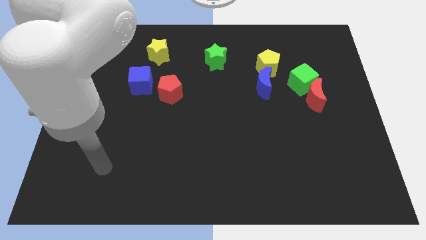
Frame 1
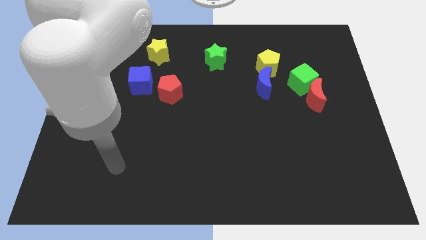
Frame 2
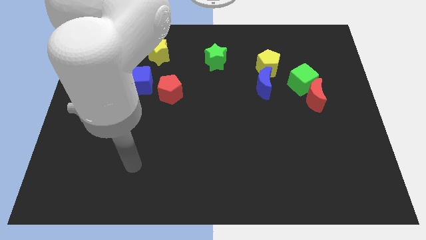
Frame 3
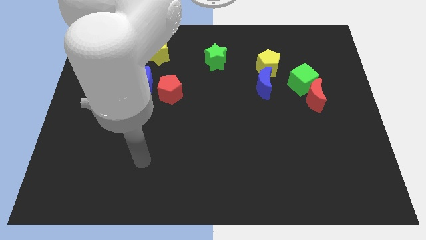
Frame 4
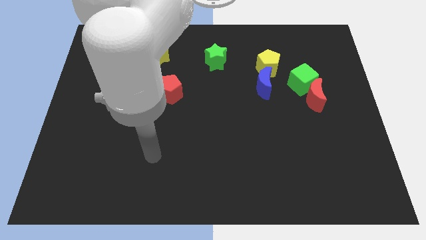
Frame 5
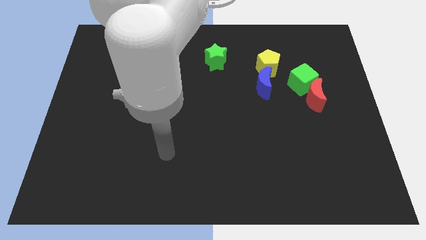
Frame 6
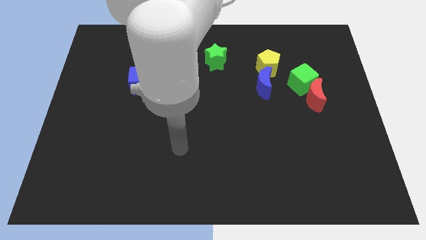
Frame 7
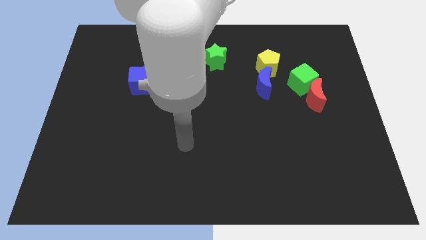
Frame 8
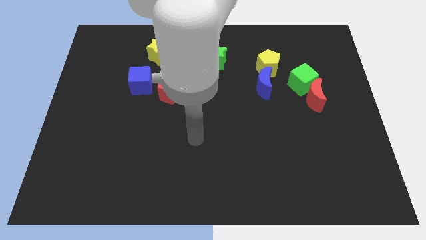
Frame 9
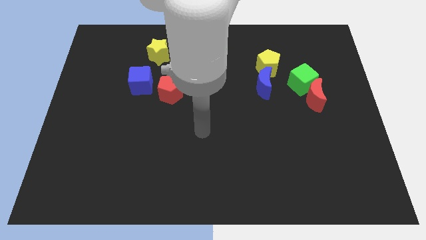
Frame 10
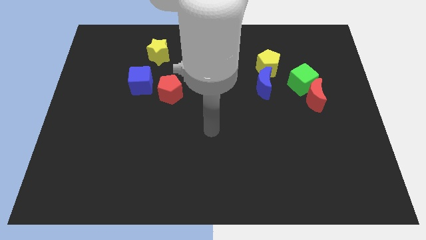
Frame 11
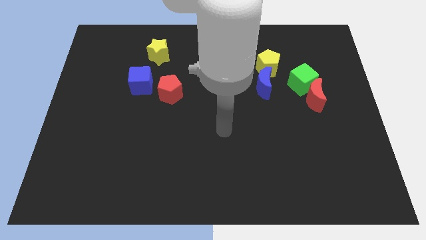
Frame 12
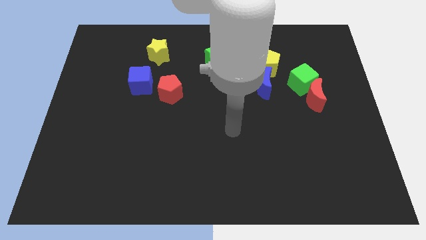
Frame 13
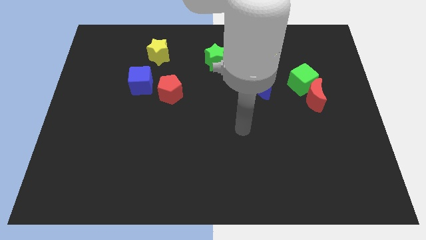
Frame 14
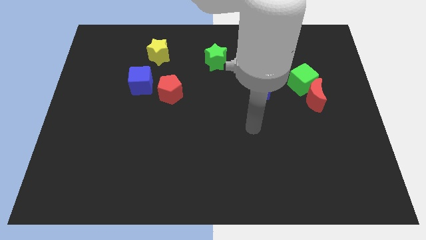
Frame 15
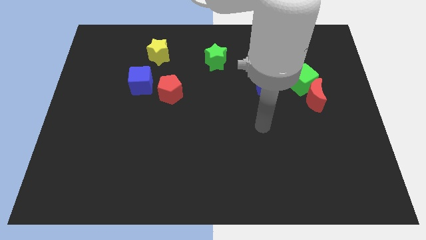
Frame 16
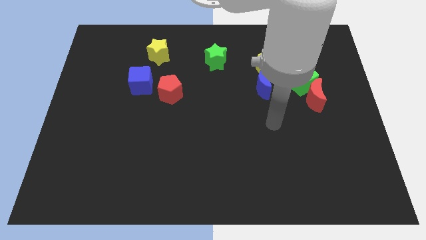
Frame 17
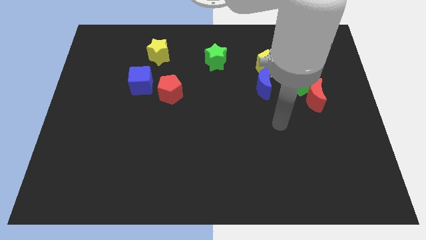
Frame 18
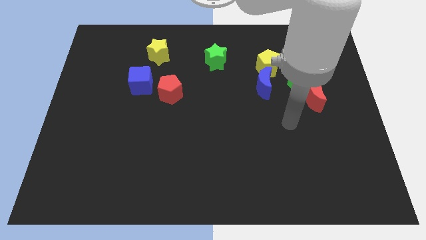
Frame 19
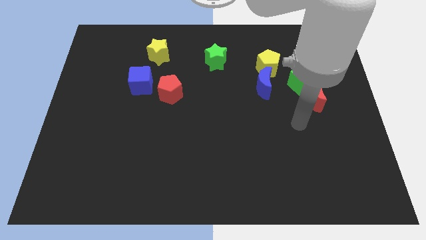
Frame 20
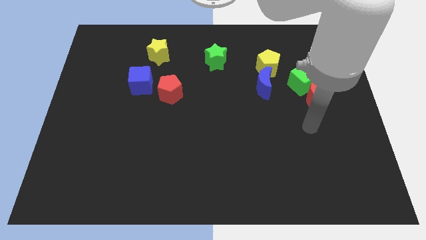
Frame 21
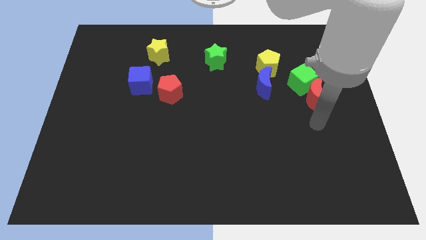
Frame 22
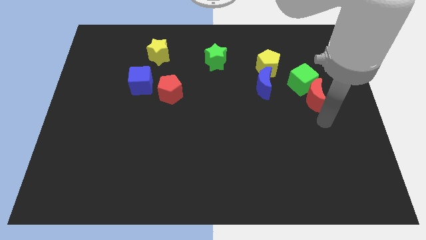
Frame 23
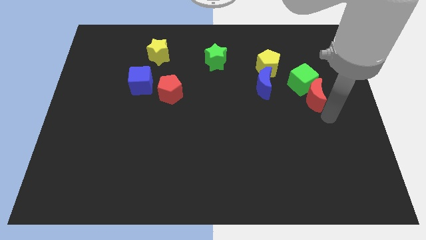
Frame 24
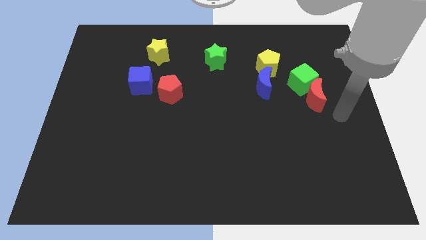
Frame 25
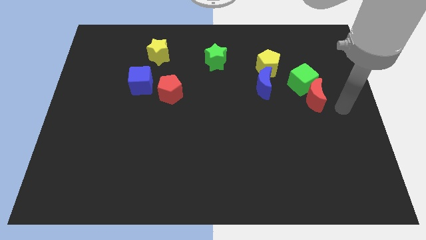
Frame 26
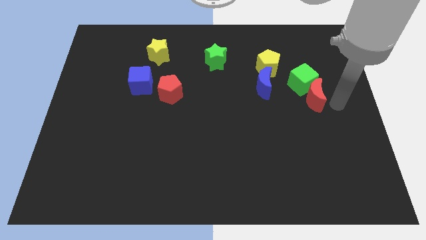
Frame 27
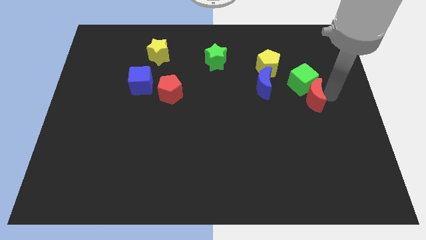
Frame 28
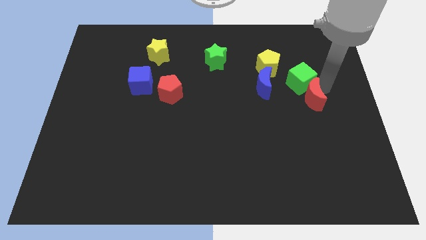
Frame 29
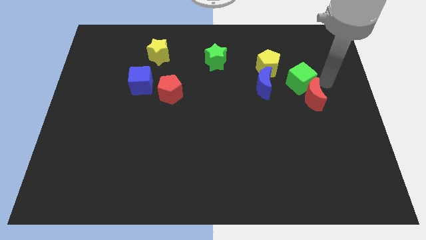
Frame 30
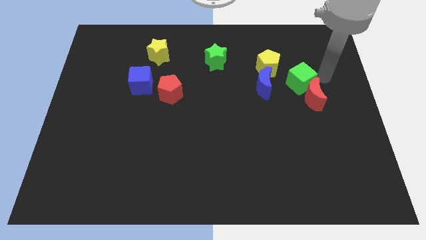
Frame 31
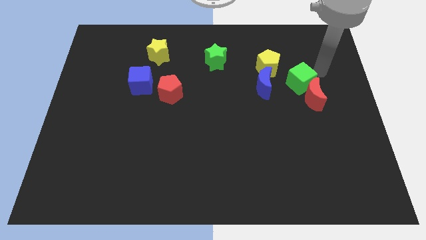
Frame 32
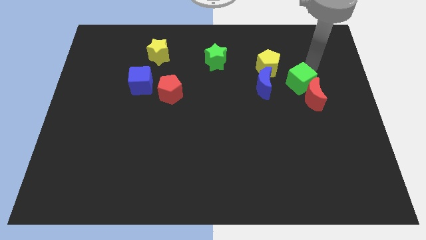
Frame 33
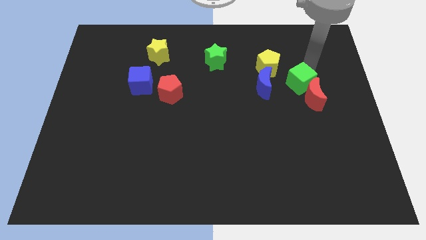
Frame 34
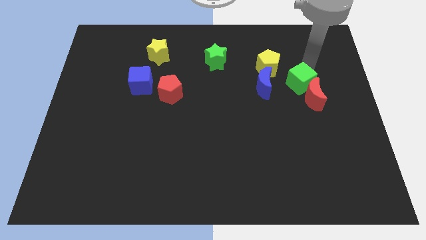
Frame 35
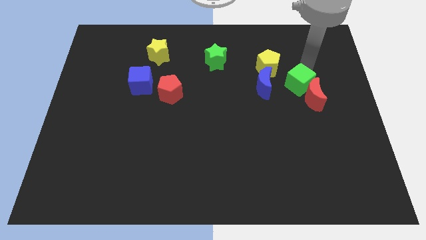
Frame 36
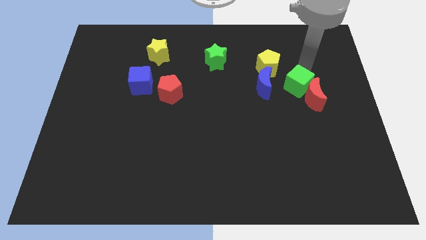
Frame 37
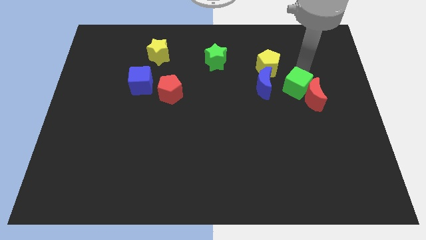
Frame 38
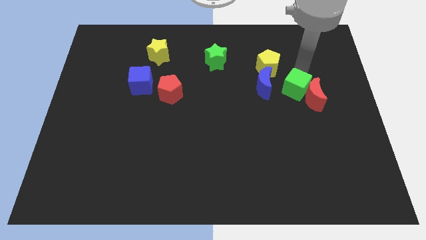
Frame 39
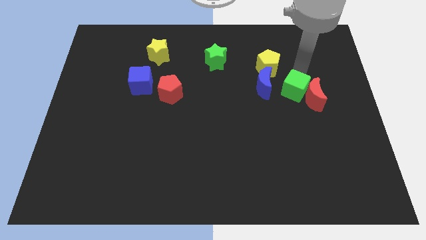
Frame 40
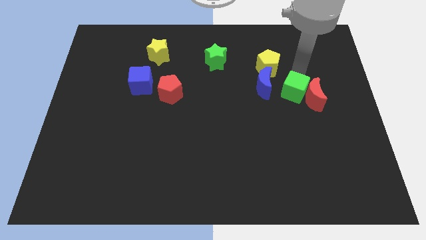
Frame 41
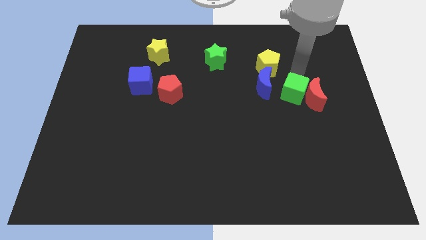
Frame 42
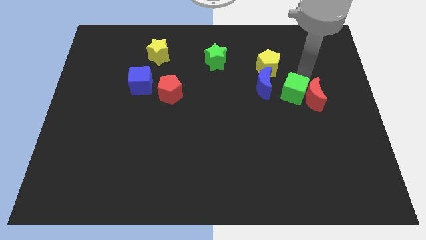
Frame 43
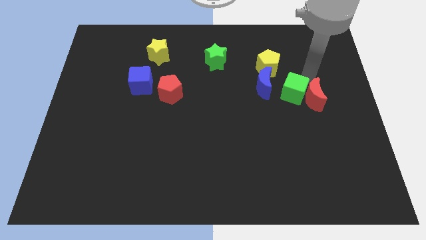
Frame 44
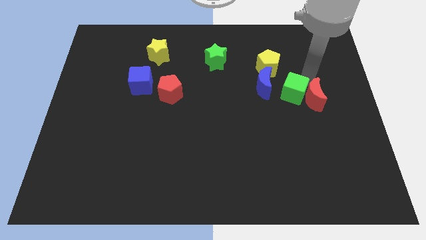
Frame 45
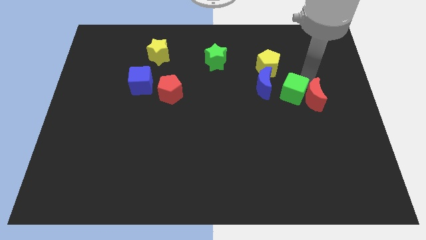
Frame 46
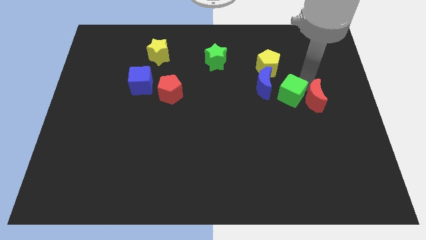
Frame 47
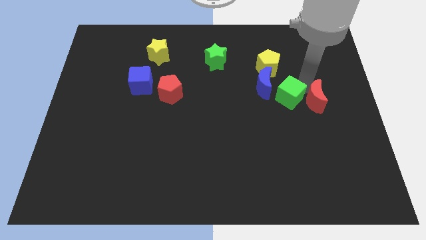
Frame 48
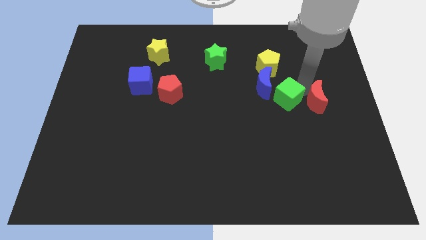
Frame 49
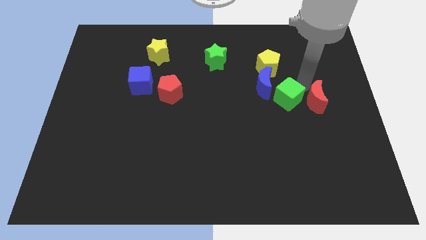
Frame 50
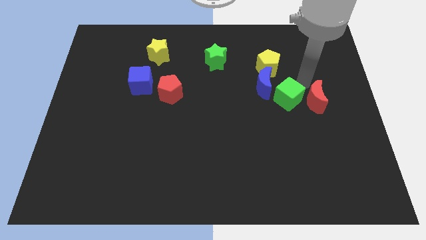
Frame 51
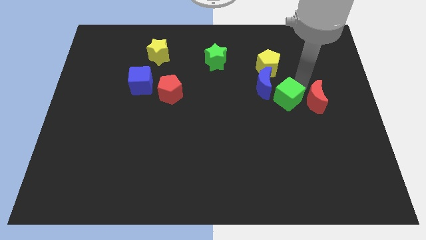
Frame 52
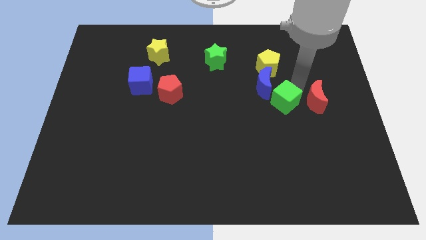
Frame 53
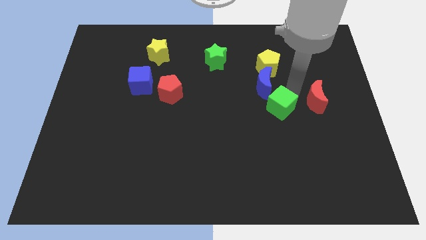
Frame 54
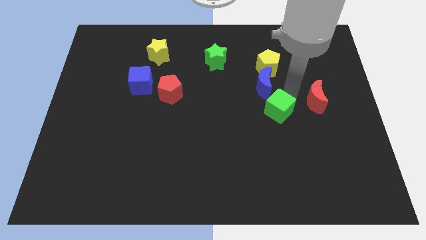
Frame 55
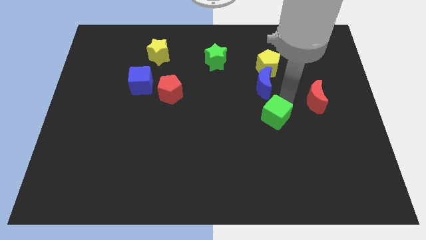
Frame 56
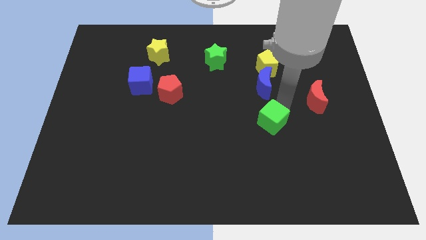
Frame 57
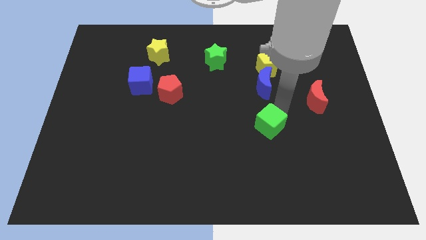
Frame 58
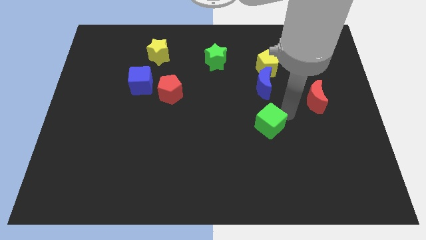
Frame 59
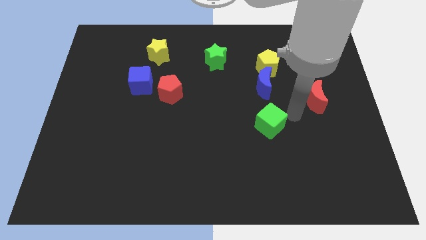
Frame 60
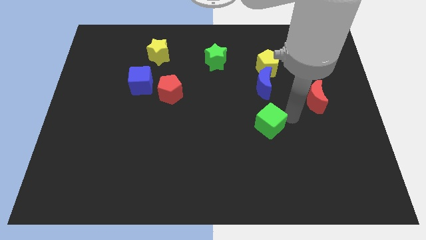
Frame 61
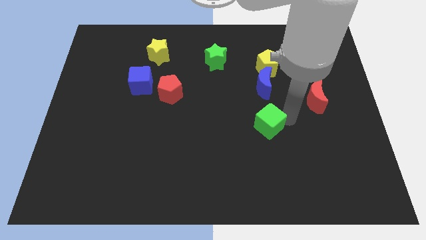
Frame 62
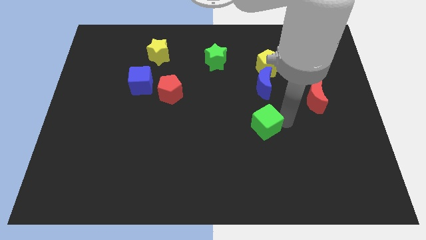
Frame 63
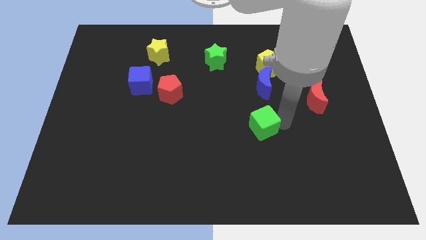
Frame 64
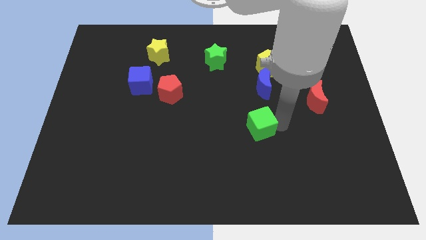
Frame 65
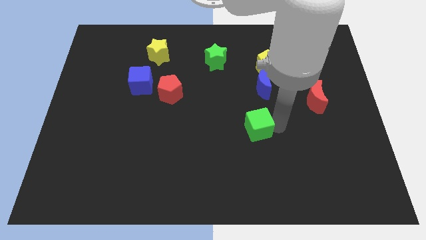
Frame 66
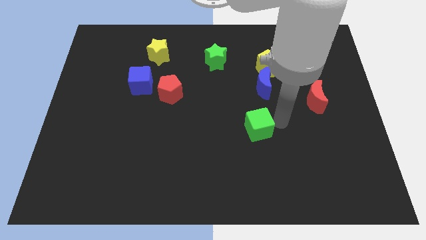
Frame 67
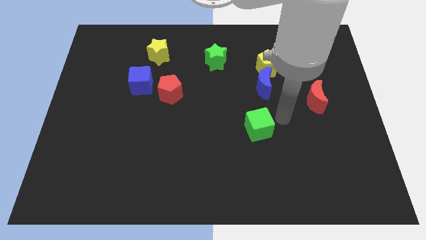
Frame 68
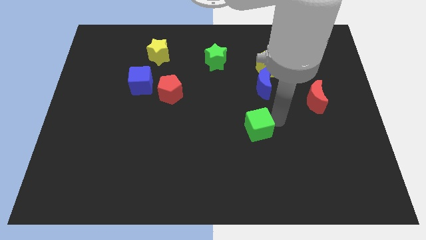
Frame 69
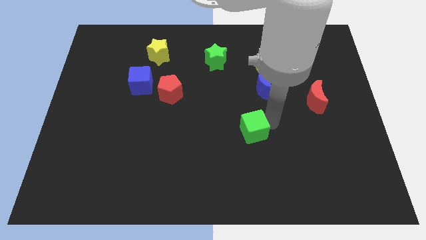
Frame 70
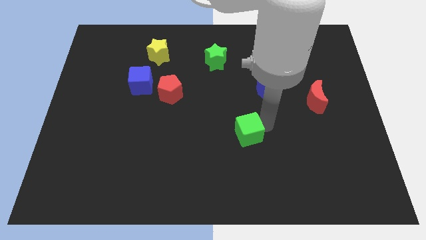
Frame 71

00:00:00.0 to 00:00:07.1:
push the green cube down and then to the left

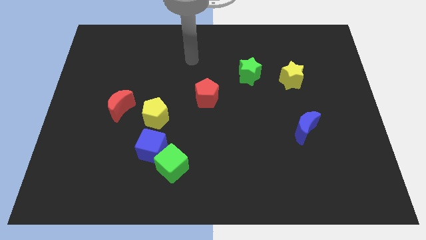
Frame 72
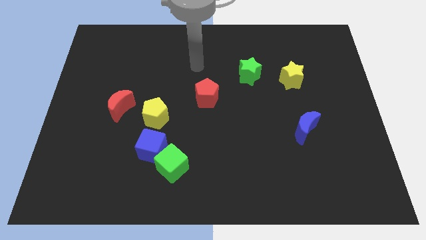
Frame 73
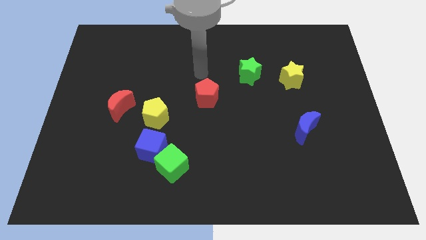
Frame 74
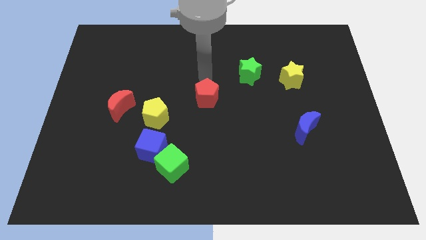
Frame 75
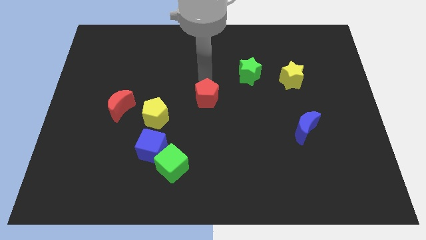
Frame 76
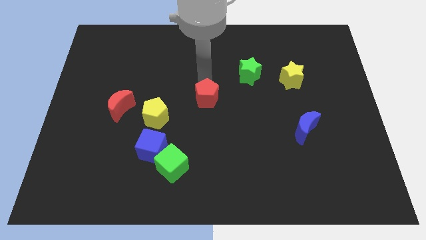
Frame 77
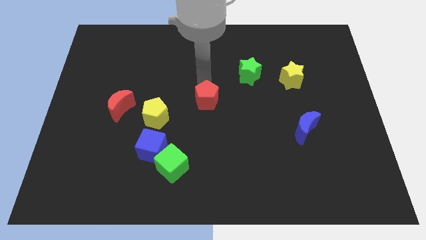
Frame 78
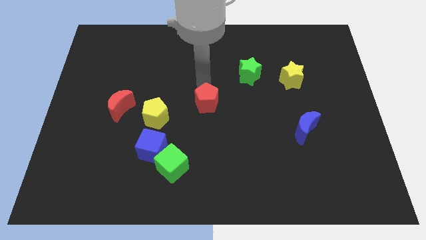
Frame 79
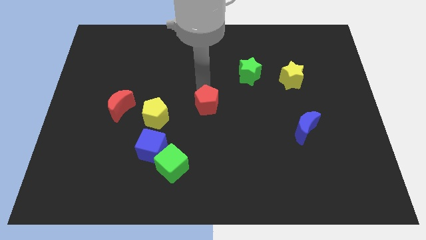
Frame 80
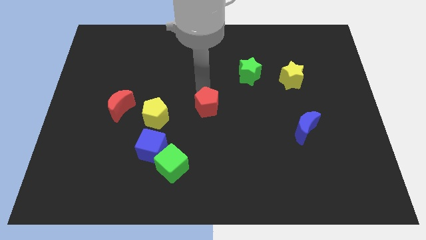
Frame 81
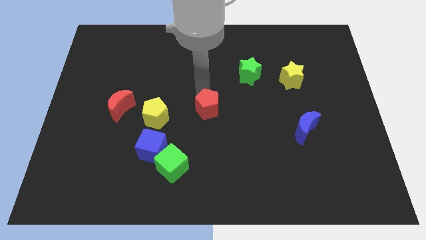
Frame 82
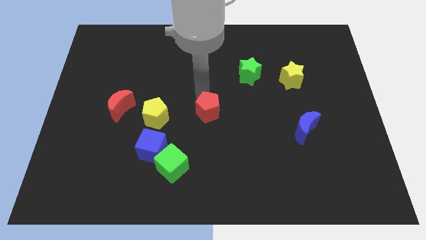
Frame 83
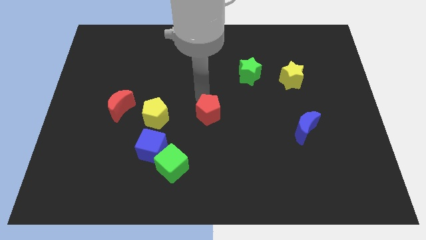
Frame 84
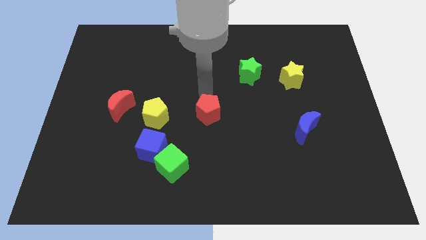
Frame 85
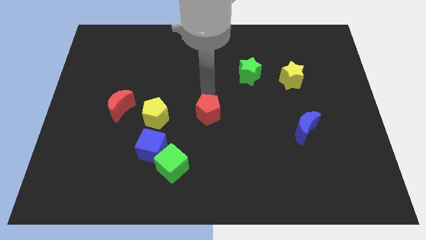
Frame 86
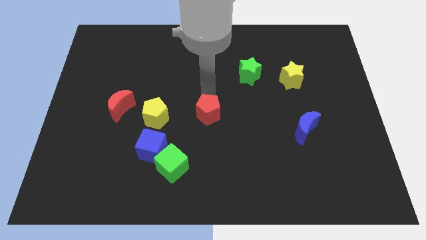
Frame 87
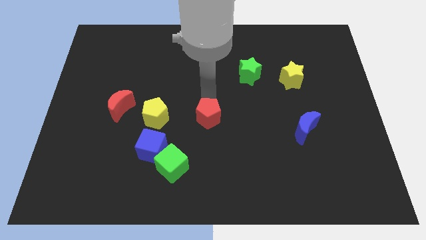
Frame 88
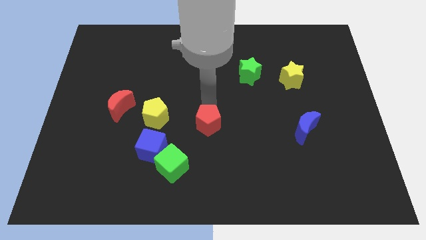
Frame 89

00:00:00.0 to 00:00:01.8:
push the red pentagon somewhat down
